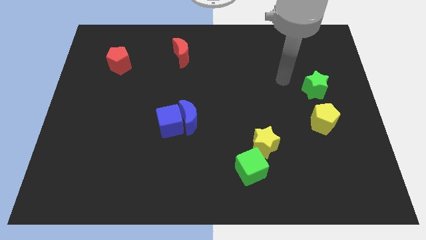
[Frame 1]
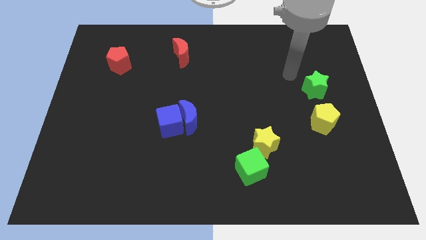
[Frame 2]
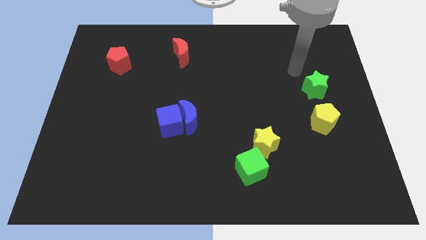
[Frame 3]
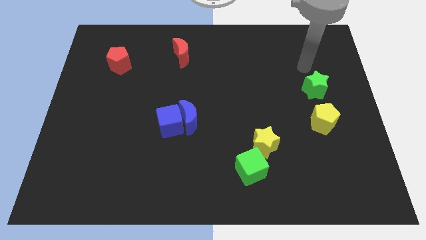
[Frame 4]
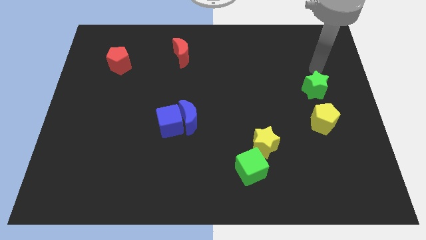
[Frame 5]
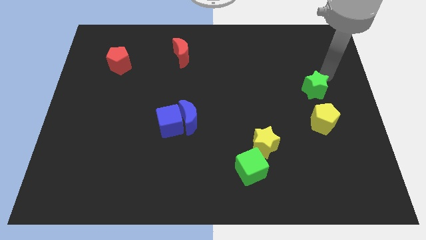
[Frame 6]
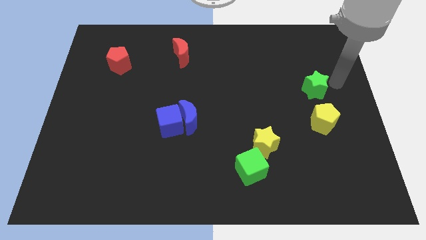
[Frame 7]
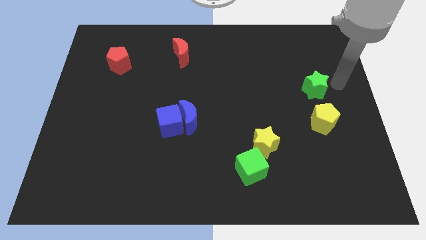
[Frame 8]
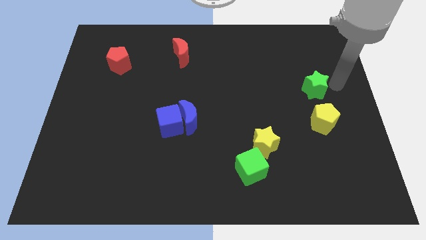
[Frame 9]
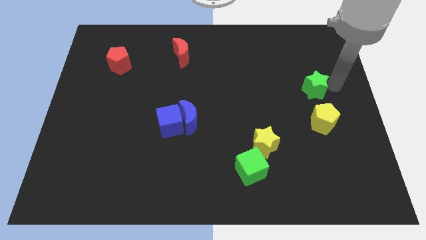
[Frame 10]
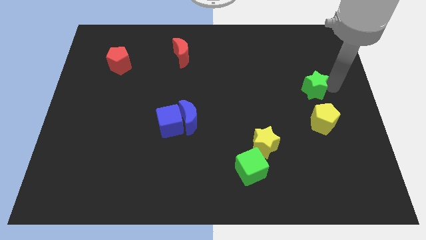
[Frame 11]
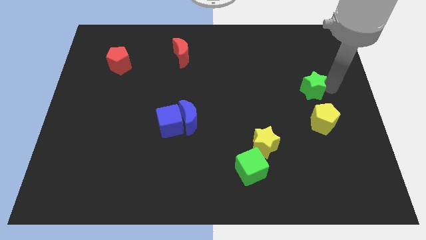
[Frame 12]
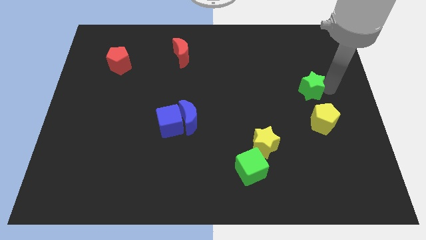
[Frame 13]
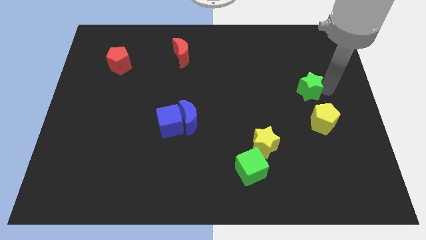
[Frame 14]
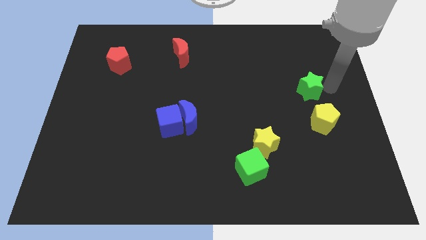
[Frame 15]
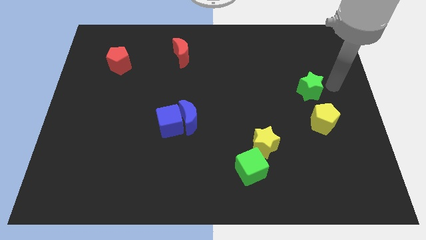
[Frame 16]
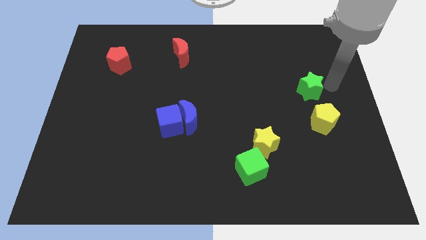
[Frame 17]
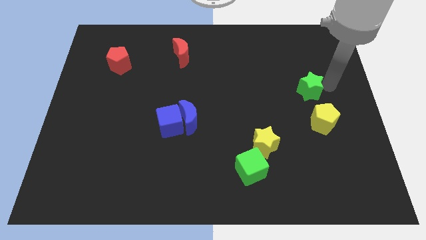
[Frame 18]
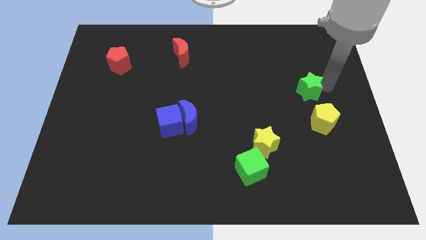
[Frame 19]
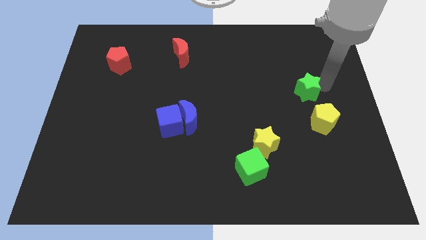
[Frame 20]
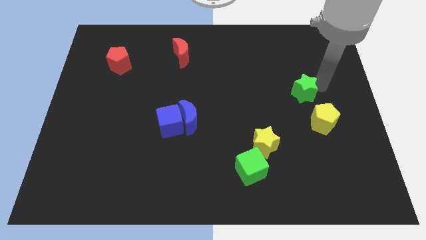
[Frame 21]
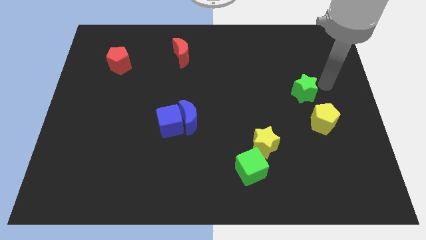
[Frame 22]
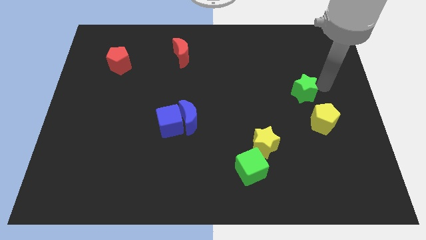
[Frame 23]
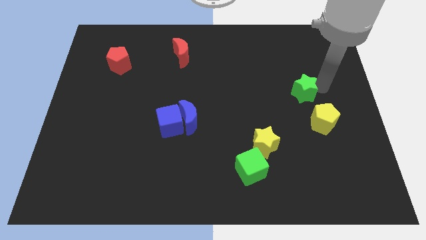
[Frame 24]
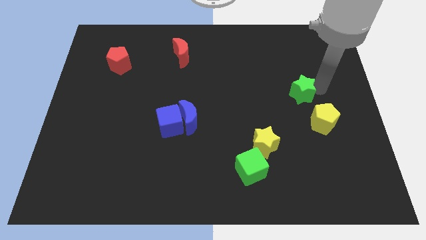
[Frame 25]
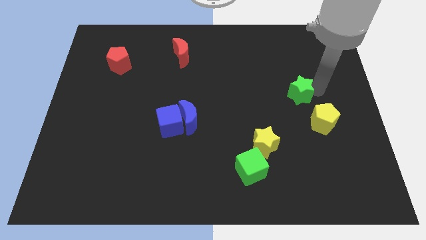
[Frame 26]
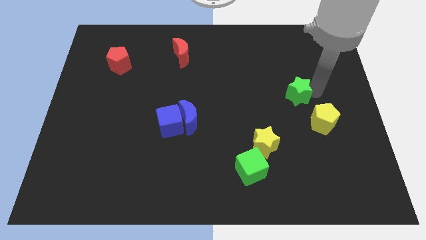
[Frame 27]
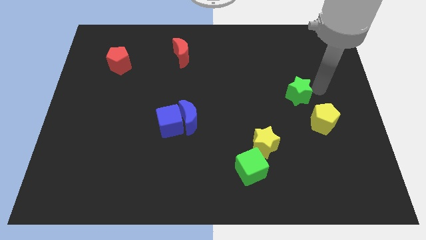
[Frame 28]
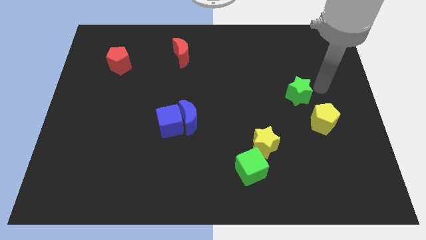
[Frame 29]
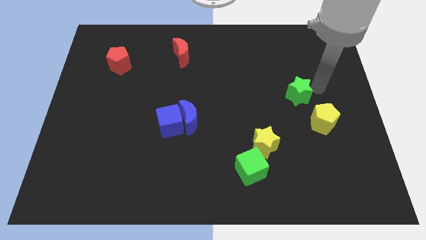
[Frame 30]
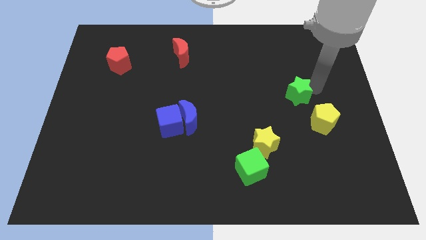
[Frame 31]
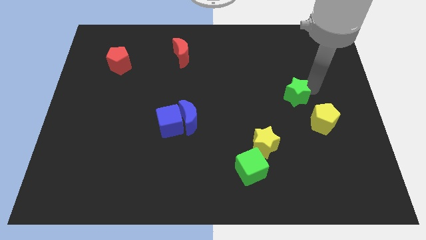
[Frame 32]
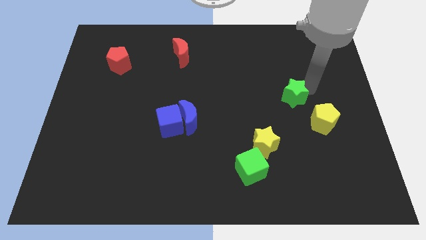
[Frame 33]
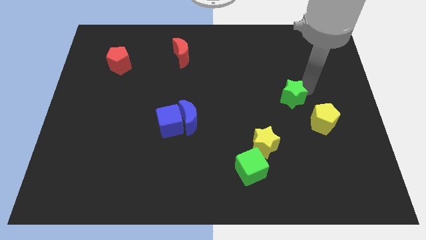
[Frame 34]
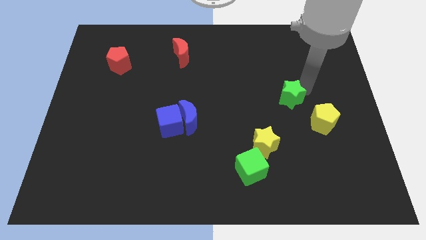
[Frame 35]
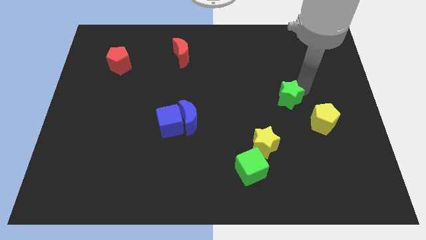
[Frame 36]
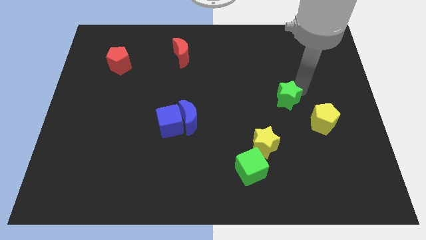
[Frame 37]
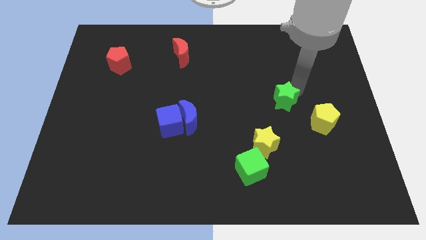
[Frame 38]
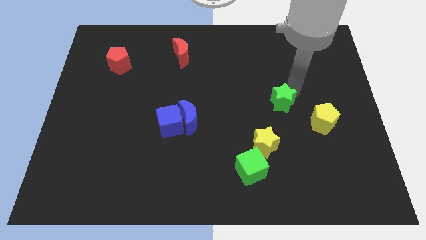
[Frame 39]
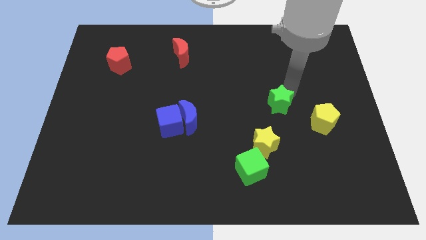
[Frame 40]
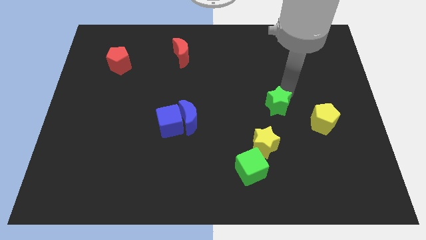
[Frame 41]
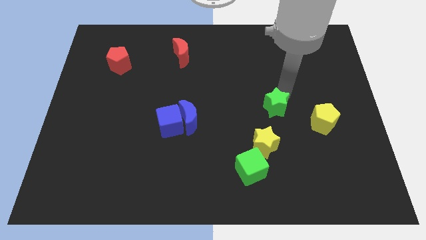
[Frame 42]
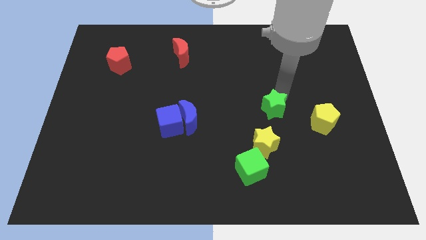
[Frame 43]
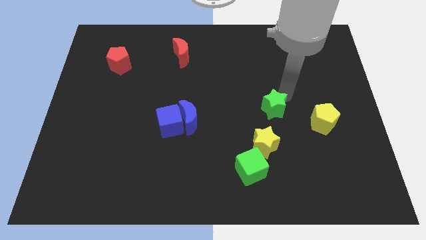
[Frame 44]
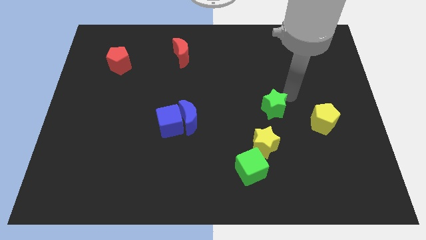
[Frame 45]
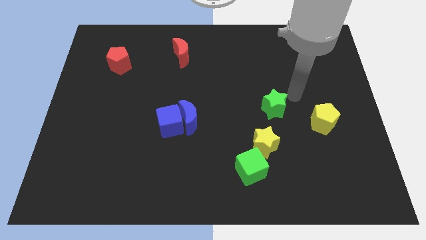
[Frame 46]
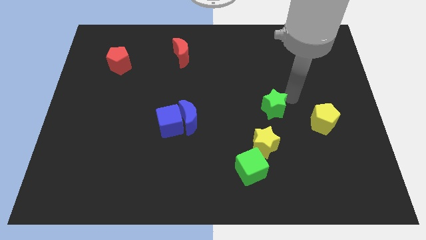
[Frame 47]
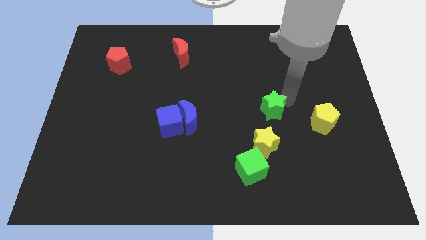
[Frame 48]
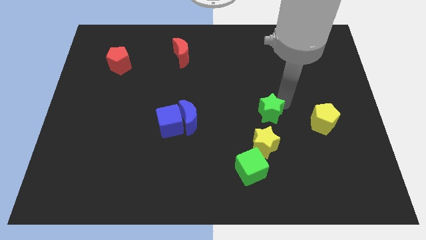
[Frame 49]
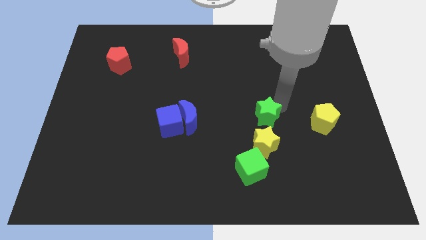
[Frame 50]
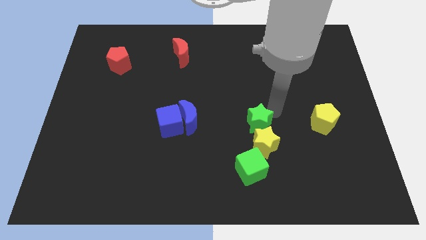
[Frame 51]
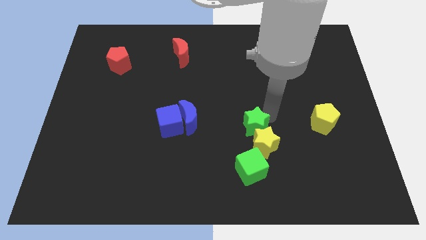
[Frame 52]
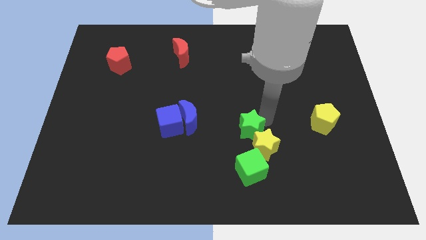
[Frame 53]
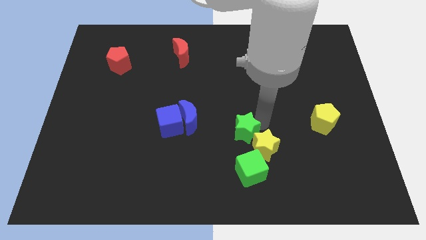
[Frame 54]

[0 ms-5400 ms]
slide the green star down and then to the left

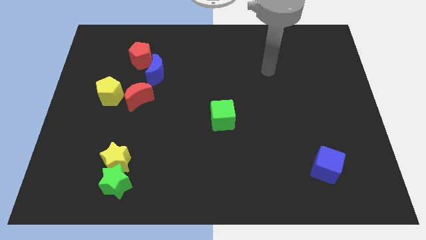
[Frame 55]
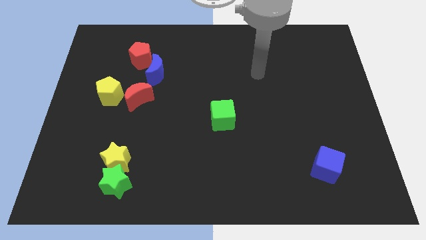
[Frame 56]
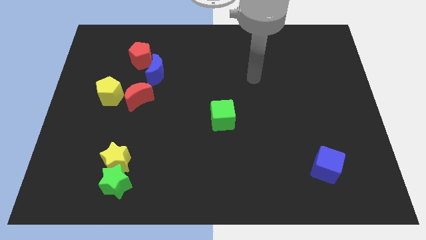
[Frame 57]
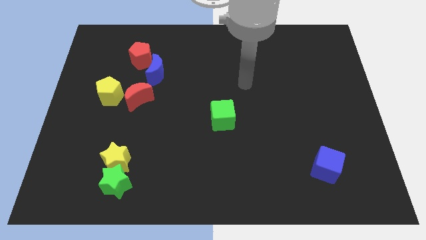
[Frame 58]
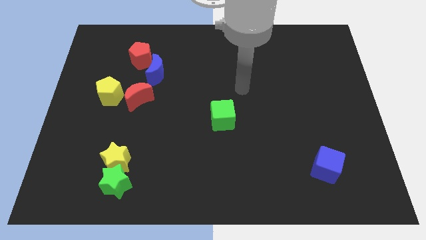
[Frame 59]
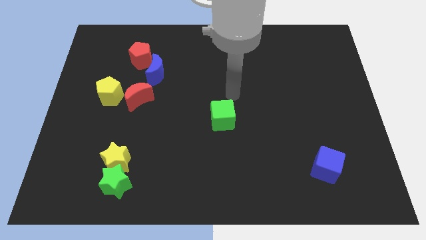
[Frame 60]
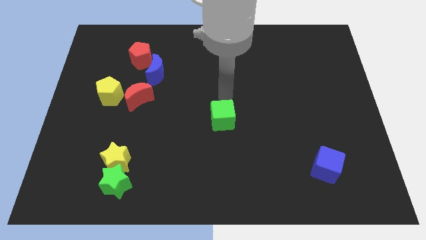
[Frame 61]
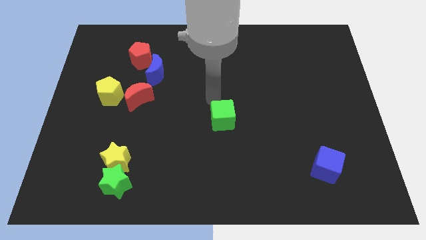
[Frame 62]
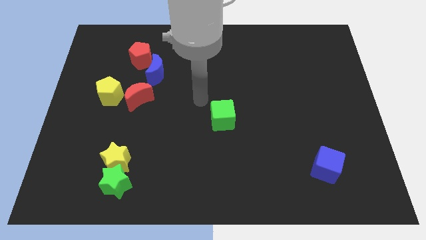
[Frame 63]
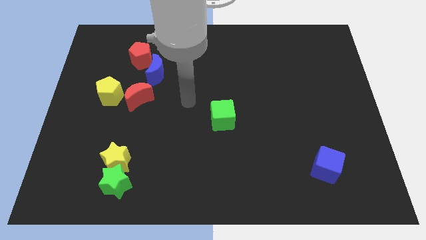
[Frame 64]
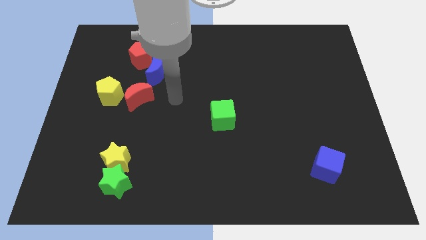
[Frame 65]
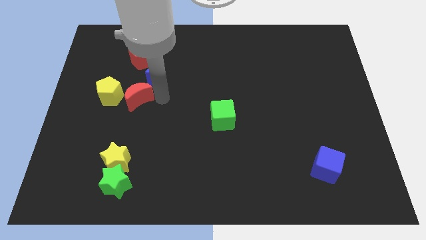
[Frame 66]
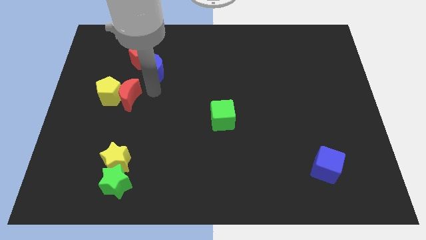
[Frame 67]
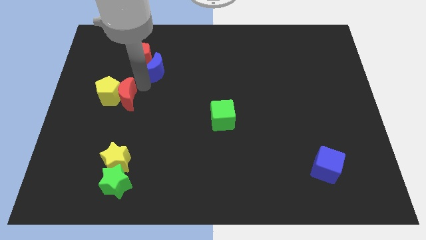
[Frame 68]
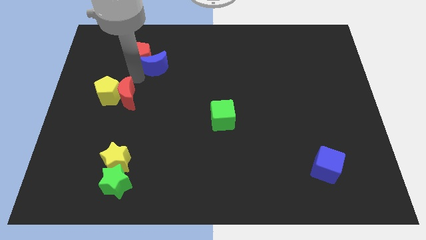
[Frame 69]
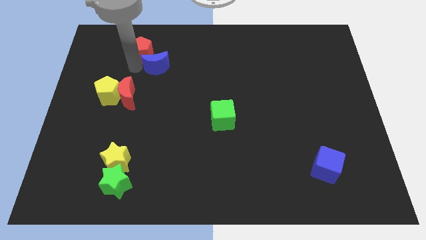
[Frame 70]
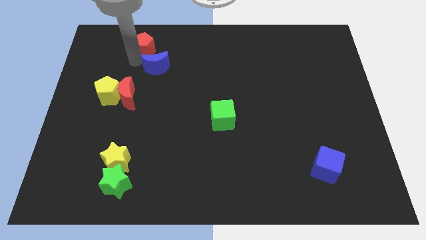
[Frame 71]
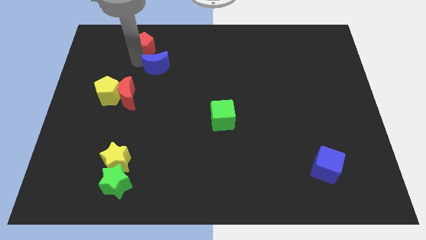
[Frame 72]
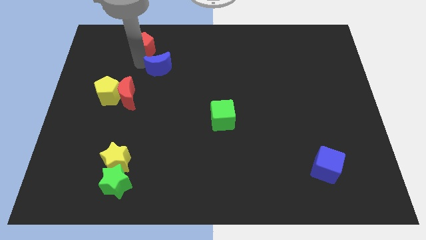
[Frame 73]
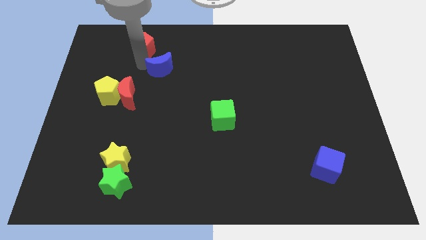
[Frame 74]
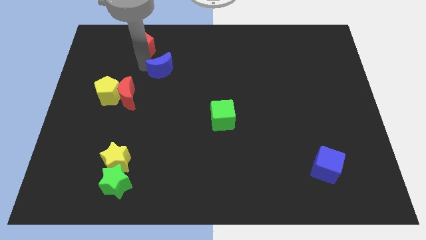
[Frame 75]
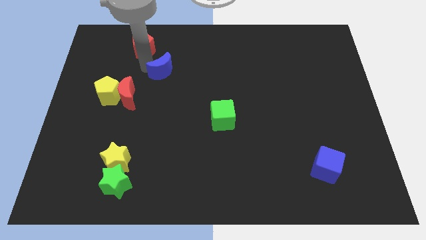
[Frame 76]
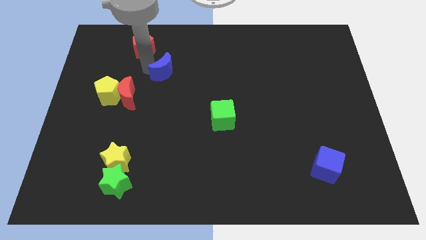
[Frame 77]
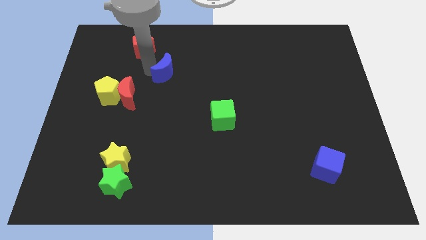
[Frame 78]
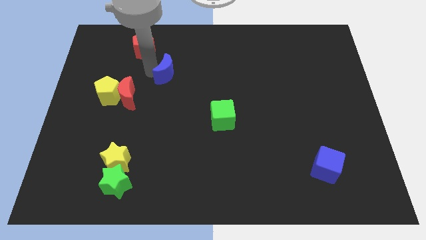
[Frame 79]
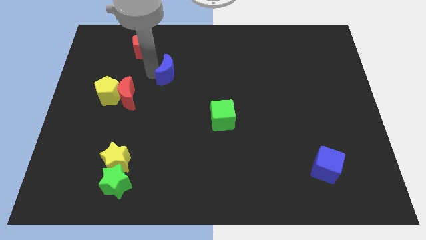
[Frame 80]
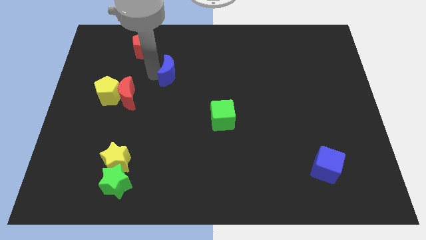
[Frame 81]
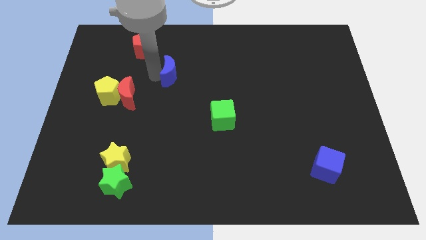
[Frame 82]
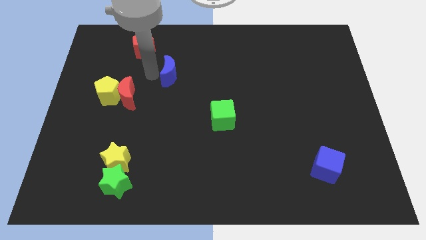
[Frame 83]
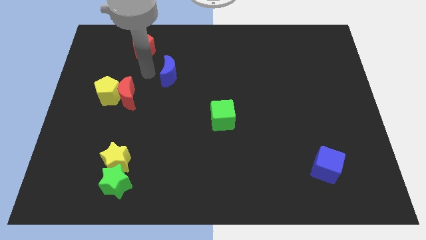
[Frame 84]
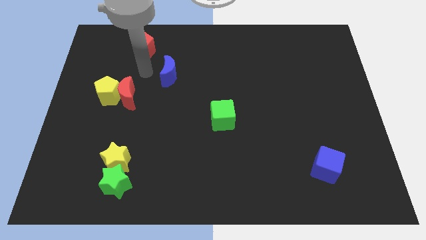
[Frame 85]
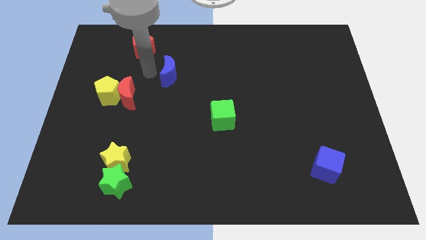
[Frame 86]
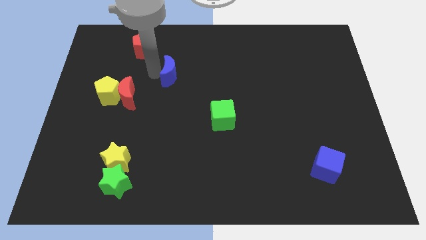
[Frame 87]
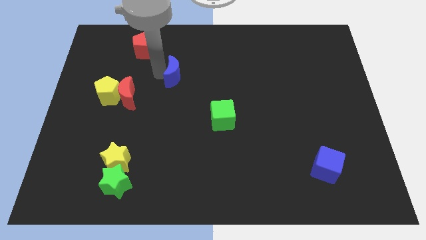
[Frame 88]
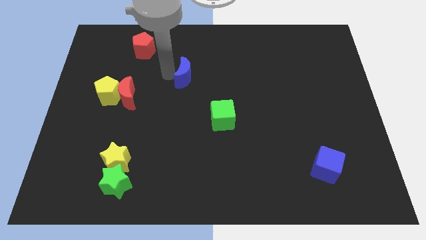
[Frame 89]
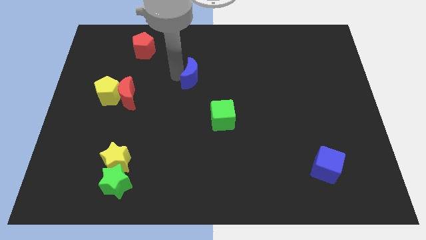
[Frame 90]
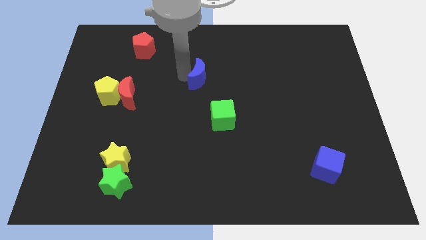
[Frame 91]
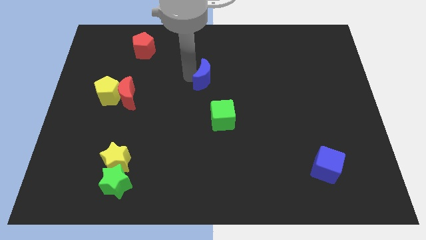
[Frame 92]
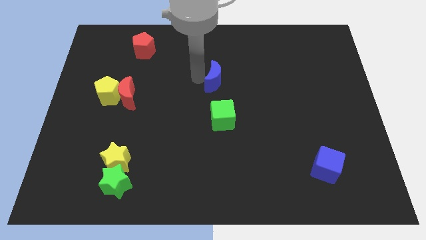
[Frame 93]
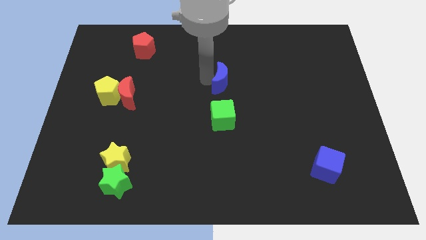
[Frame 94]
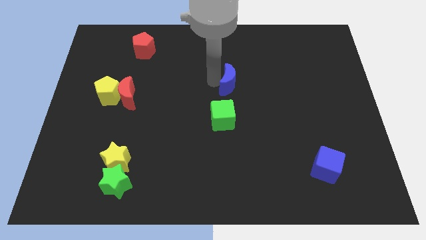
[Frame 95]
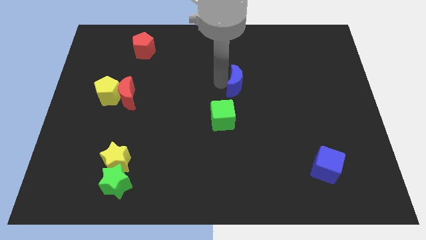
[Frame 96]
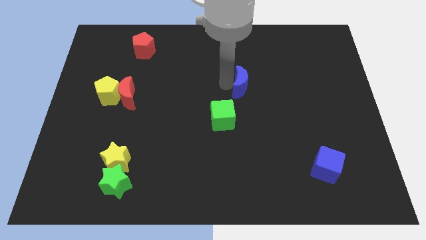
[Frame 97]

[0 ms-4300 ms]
push the blue moon to the right
